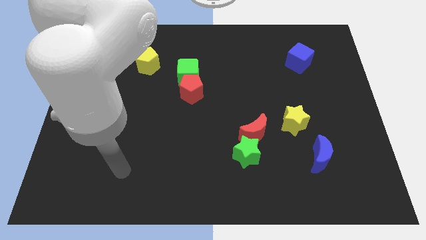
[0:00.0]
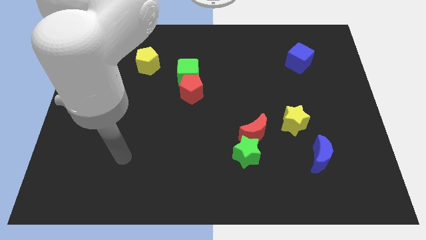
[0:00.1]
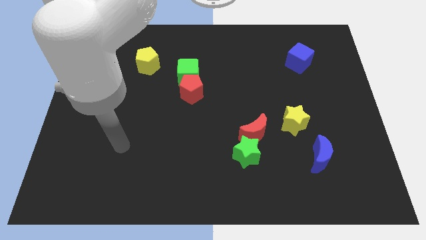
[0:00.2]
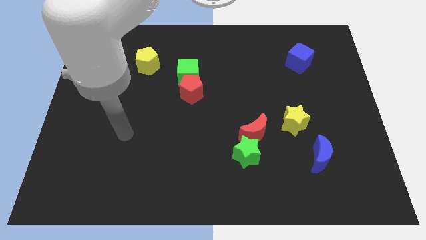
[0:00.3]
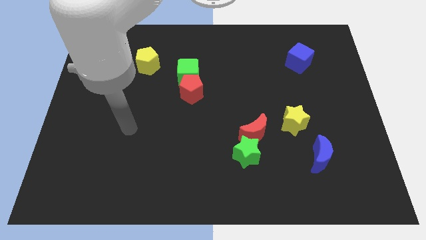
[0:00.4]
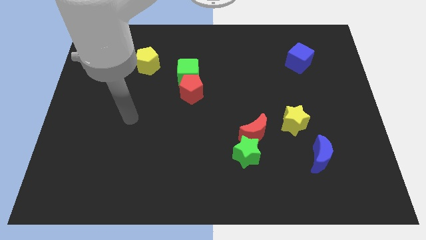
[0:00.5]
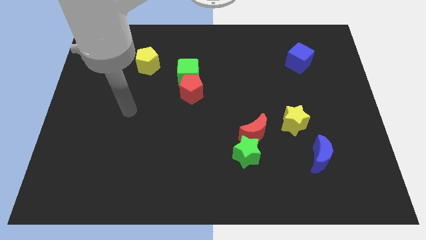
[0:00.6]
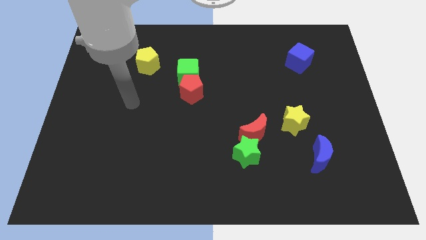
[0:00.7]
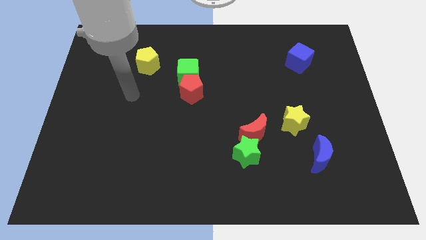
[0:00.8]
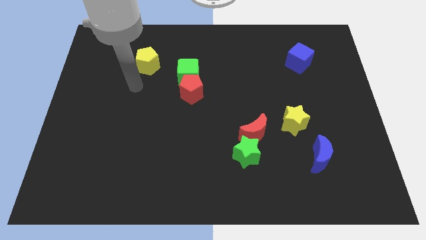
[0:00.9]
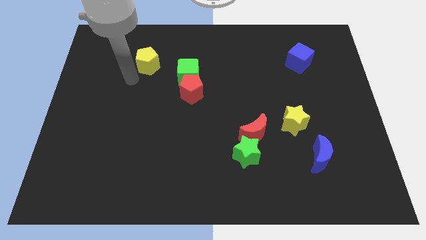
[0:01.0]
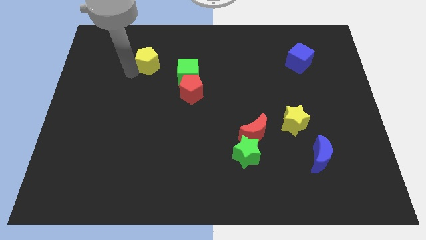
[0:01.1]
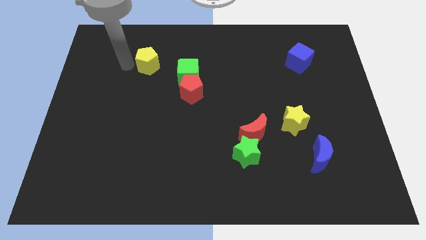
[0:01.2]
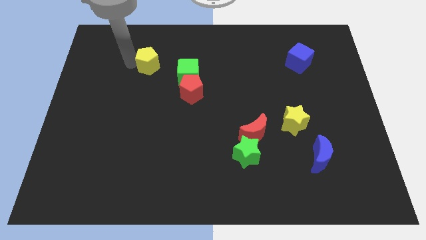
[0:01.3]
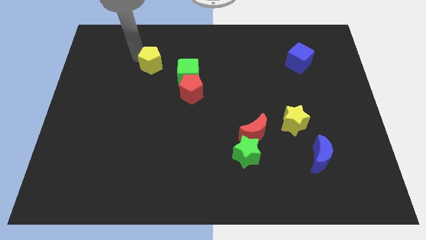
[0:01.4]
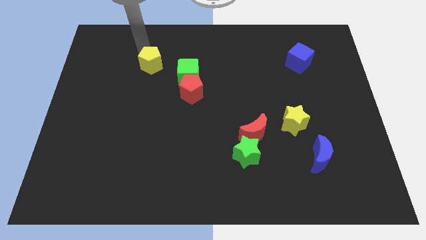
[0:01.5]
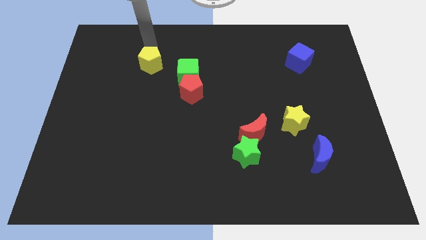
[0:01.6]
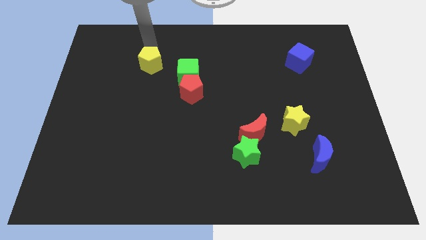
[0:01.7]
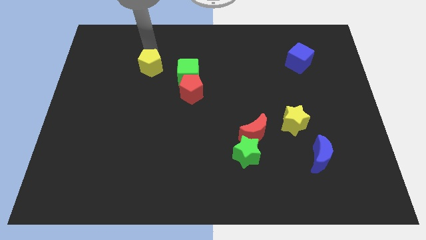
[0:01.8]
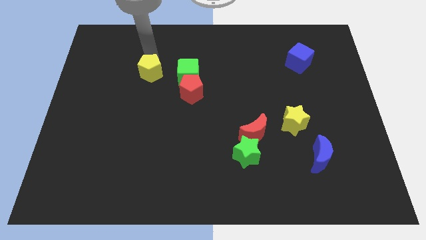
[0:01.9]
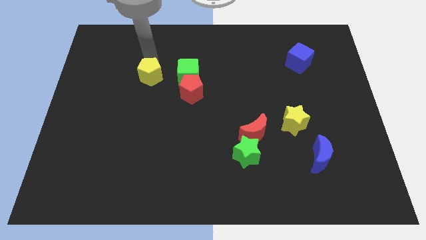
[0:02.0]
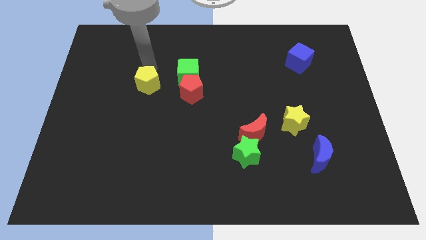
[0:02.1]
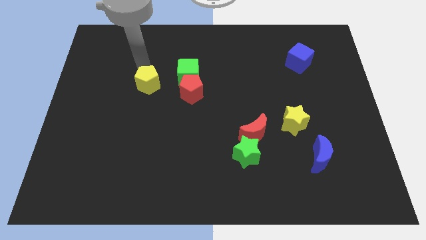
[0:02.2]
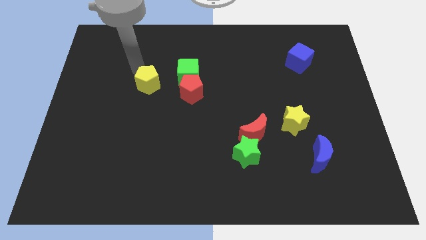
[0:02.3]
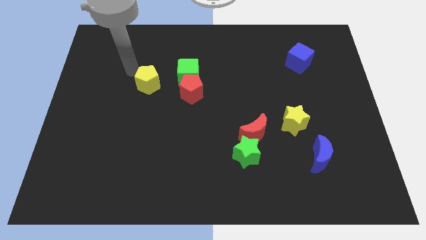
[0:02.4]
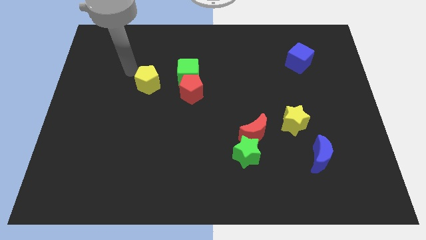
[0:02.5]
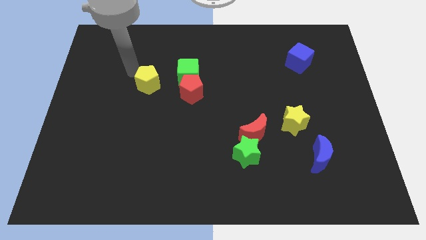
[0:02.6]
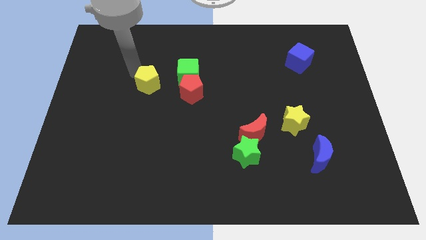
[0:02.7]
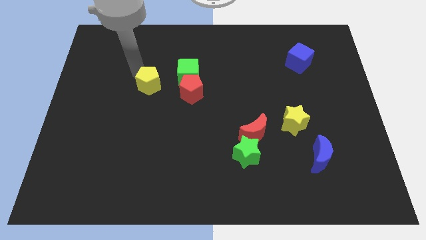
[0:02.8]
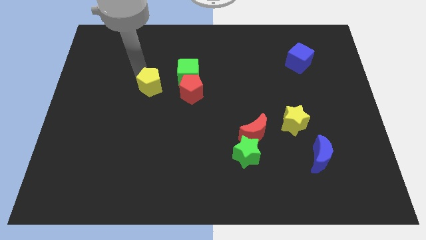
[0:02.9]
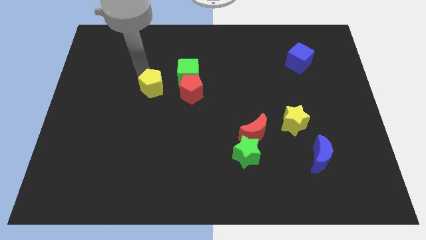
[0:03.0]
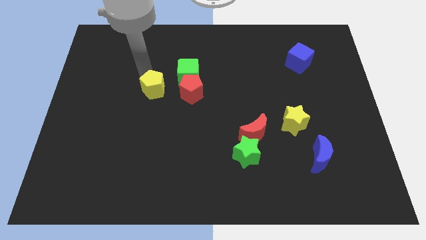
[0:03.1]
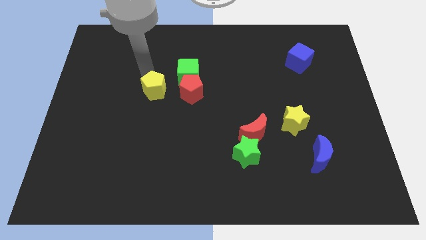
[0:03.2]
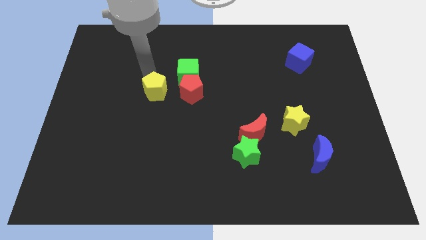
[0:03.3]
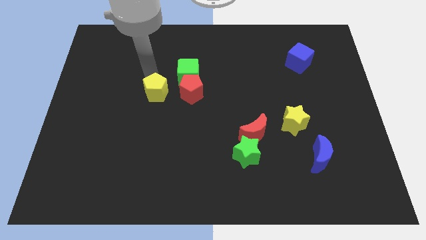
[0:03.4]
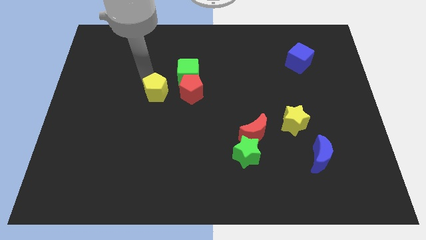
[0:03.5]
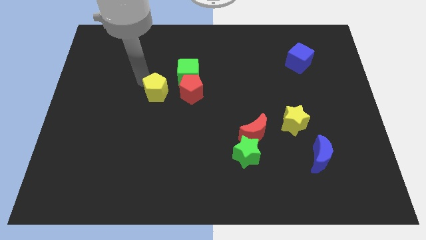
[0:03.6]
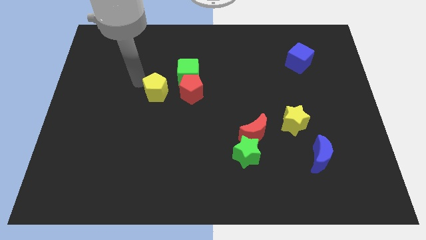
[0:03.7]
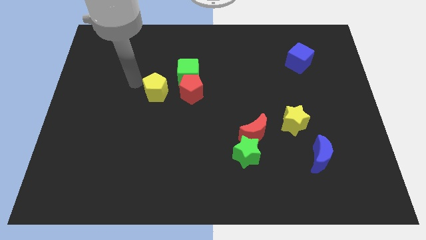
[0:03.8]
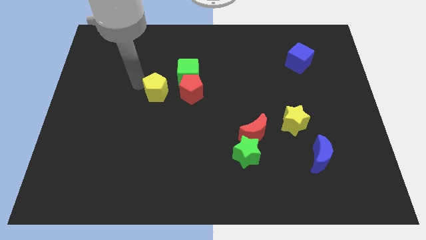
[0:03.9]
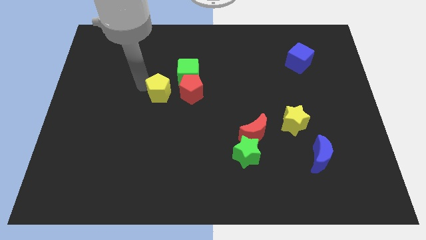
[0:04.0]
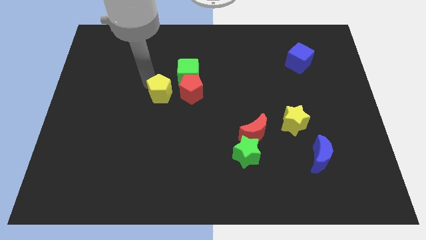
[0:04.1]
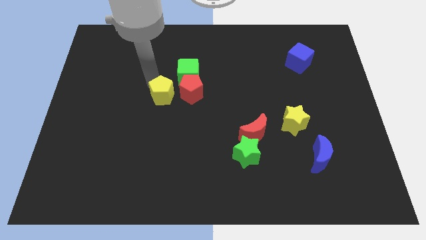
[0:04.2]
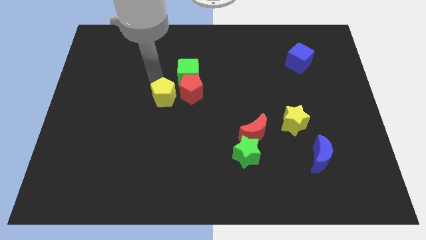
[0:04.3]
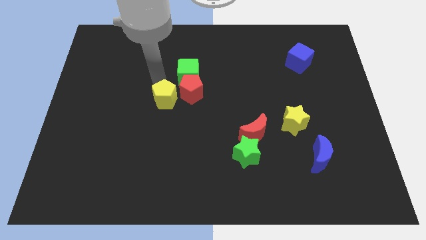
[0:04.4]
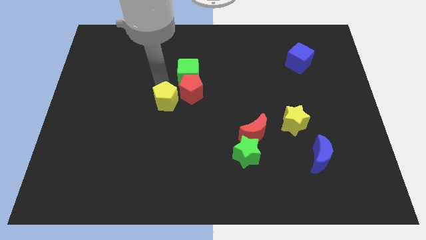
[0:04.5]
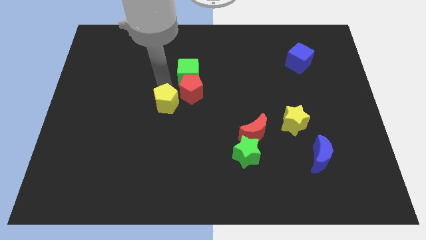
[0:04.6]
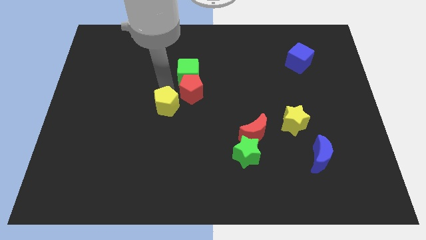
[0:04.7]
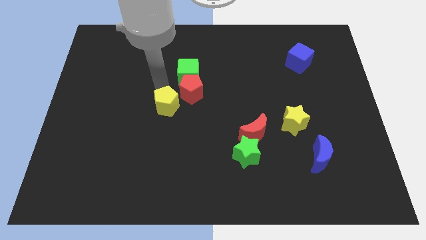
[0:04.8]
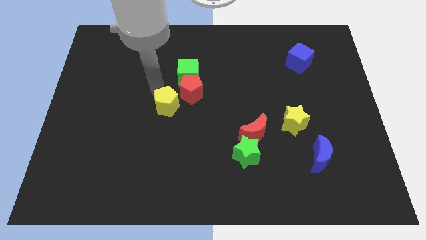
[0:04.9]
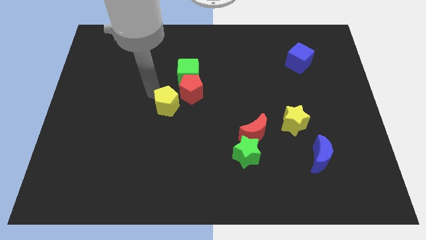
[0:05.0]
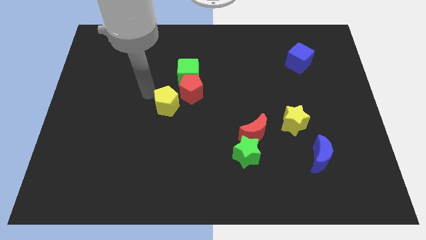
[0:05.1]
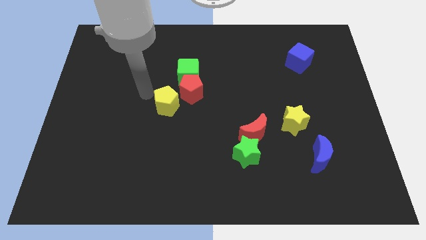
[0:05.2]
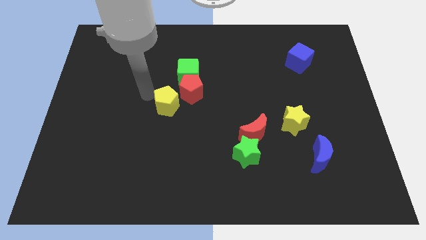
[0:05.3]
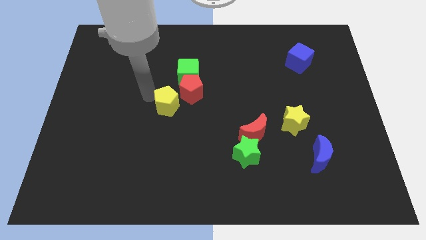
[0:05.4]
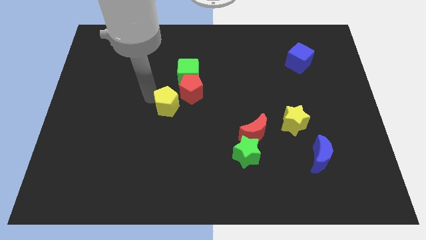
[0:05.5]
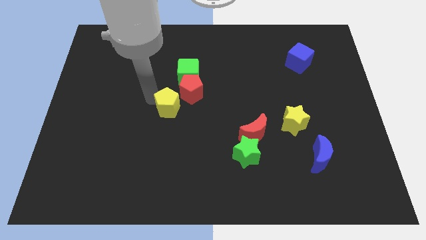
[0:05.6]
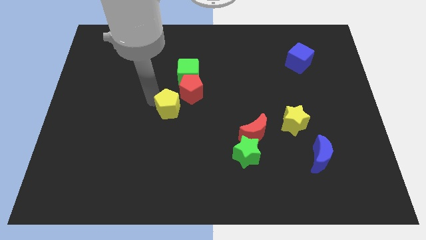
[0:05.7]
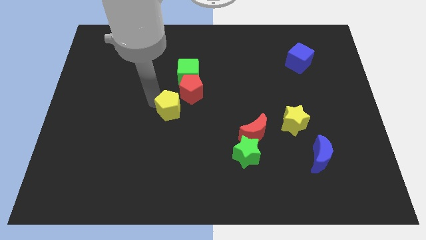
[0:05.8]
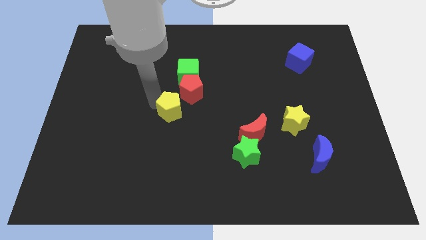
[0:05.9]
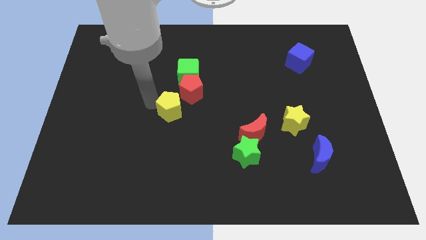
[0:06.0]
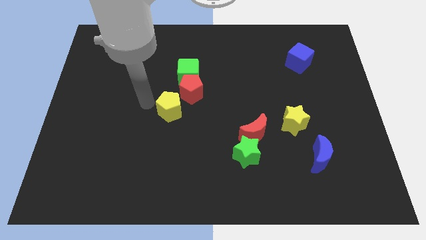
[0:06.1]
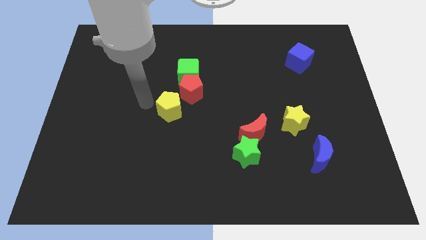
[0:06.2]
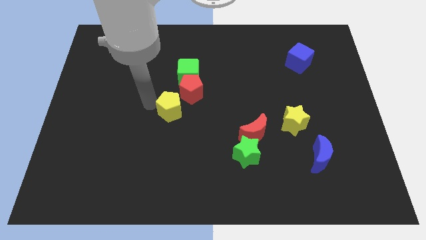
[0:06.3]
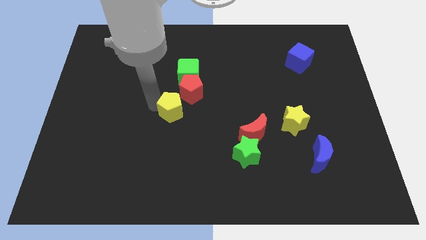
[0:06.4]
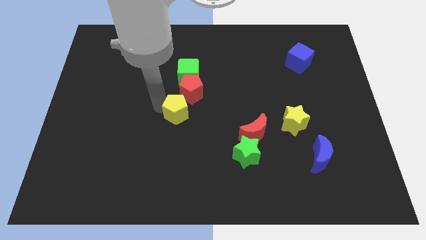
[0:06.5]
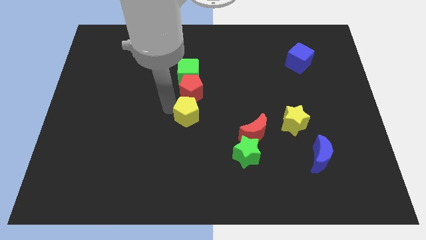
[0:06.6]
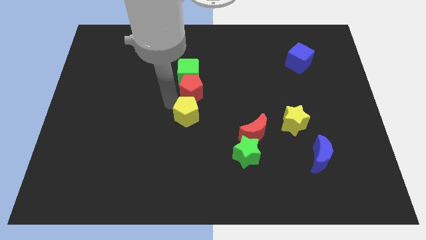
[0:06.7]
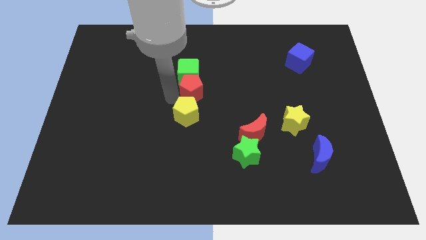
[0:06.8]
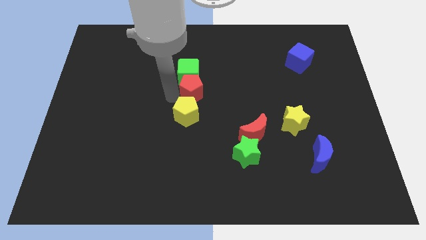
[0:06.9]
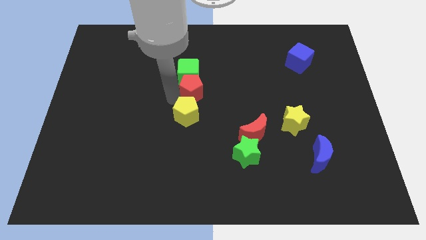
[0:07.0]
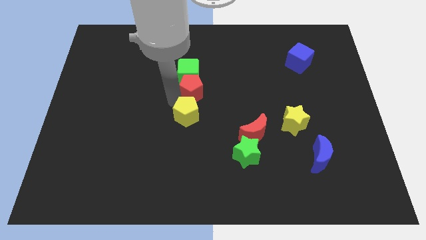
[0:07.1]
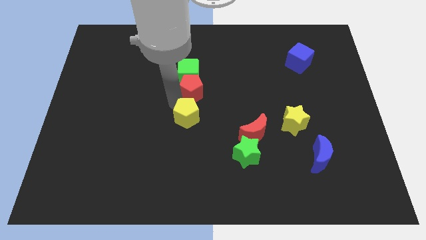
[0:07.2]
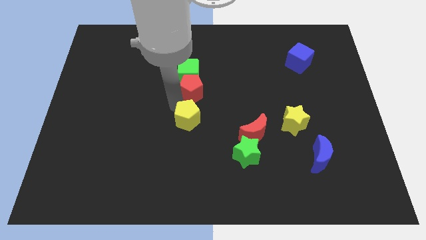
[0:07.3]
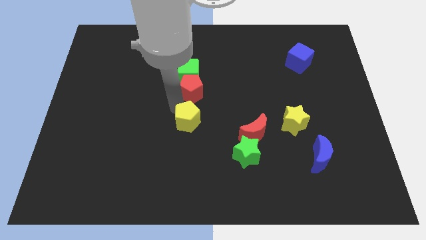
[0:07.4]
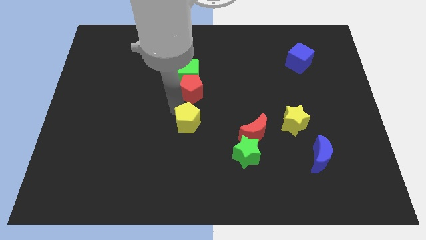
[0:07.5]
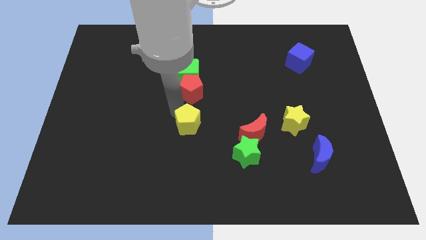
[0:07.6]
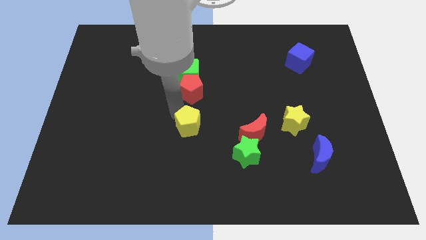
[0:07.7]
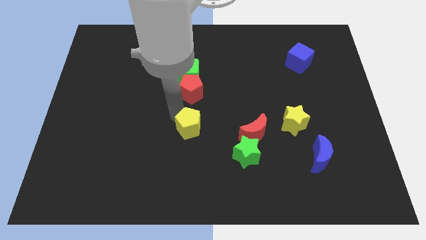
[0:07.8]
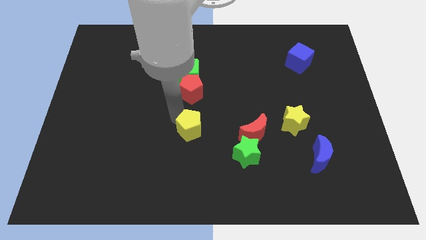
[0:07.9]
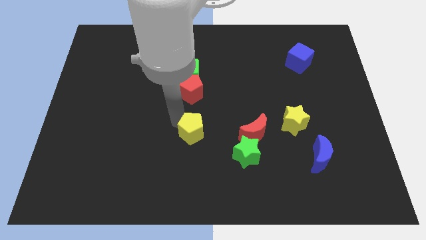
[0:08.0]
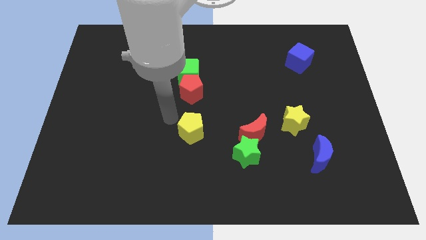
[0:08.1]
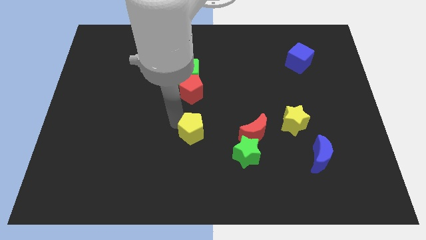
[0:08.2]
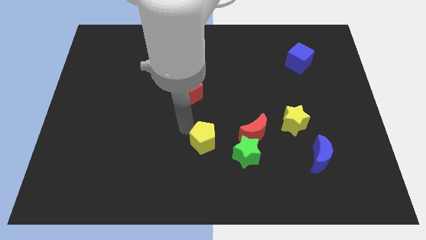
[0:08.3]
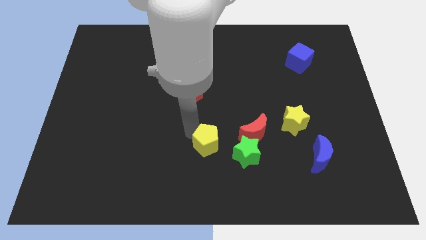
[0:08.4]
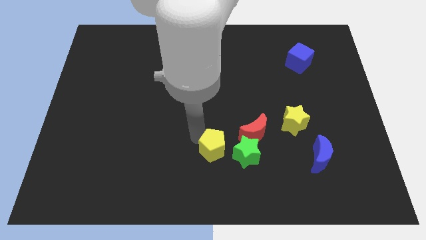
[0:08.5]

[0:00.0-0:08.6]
slide the yellow pentagon to the bottom left side of the red moon
